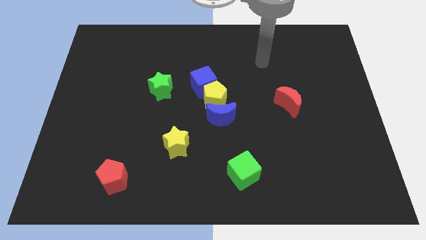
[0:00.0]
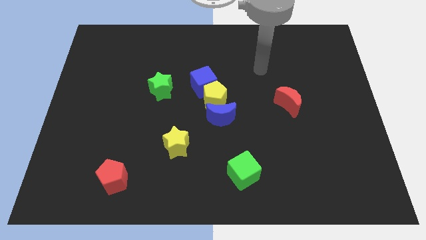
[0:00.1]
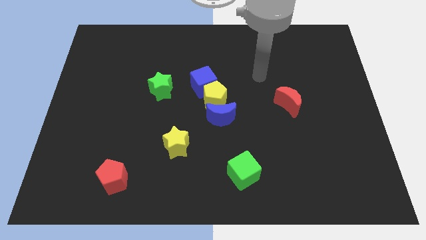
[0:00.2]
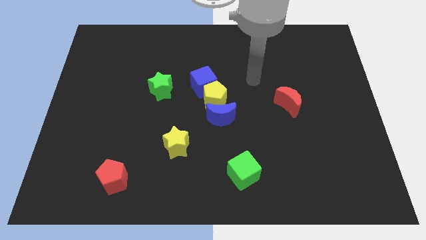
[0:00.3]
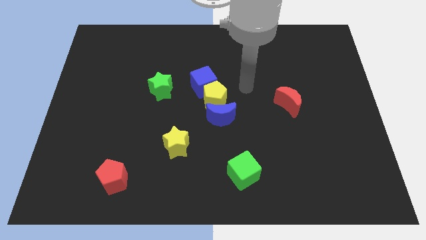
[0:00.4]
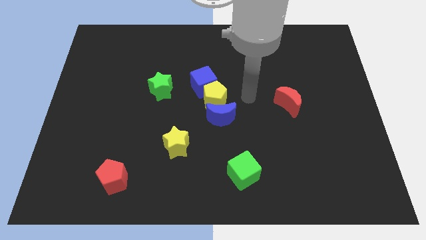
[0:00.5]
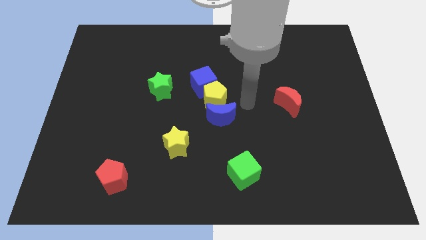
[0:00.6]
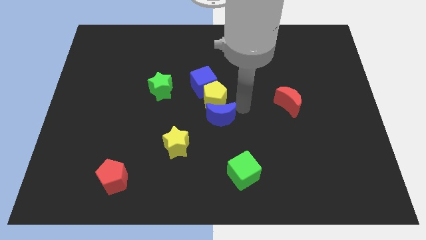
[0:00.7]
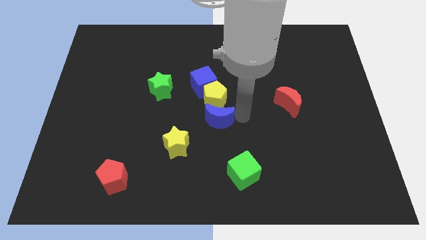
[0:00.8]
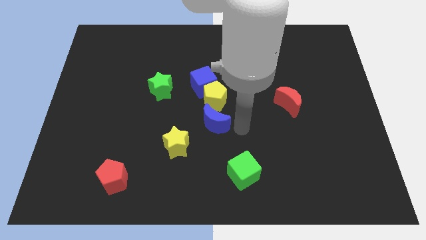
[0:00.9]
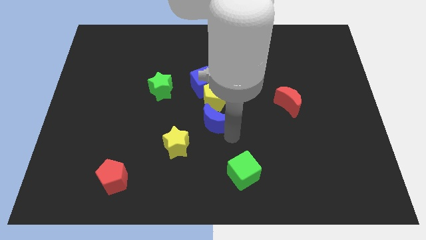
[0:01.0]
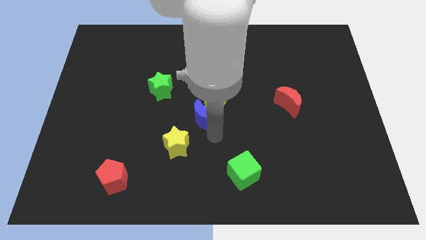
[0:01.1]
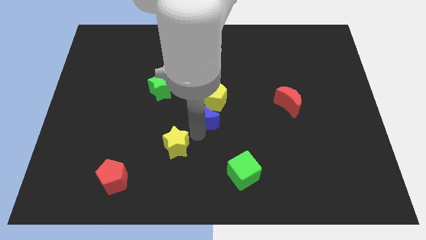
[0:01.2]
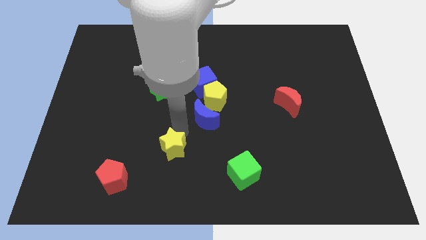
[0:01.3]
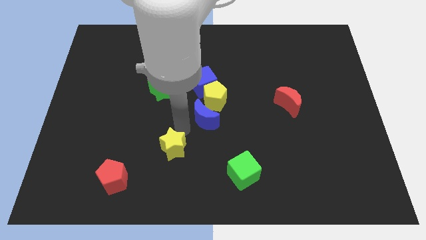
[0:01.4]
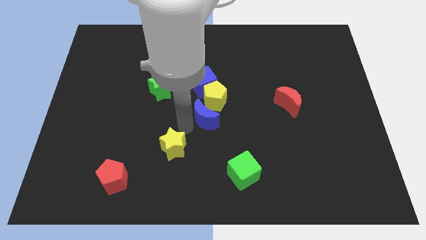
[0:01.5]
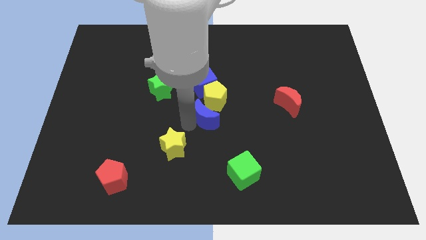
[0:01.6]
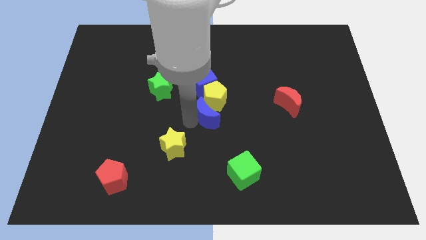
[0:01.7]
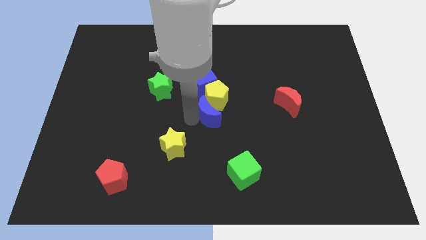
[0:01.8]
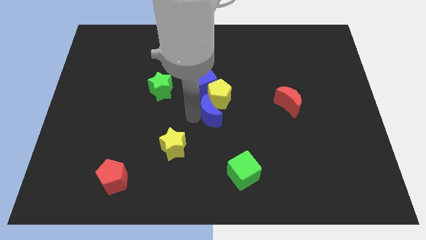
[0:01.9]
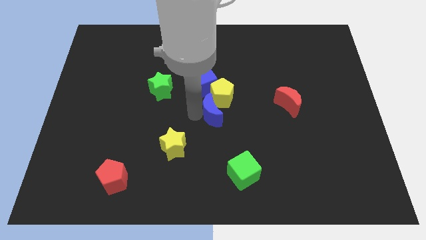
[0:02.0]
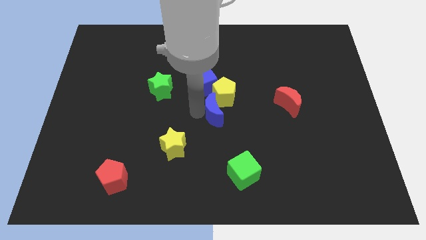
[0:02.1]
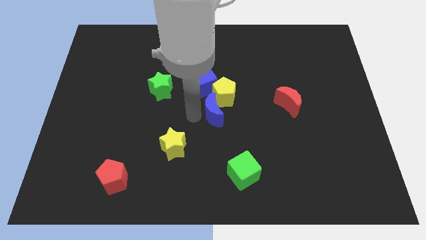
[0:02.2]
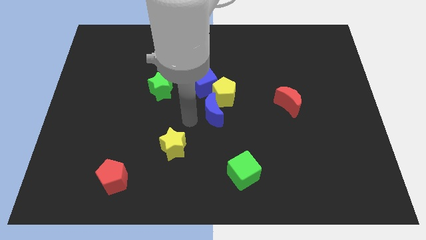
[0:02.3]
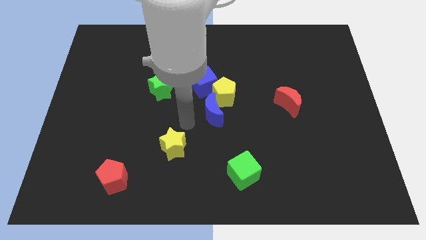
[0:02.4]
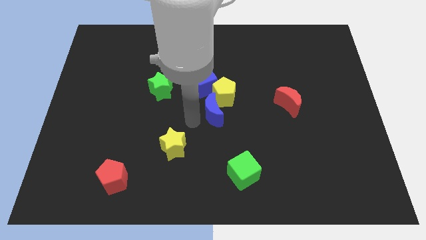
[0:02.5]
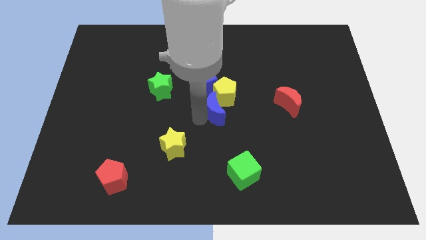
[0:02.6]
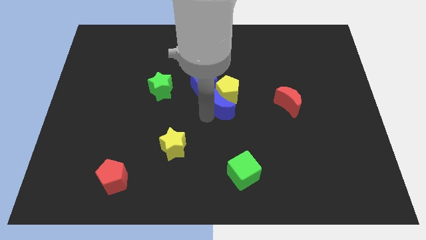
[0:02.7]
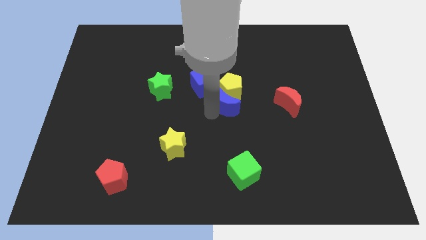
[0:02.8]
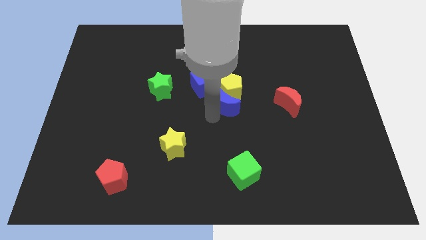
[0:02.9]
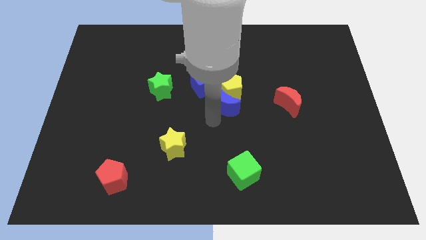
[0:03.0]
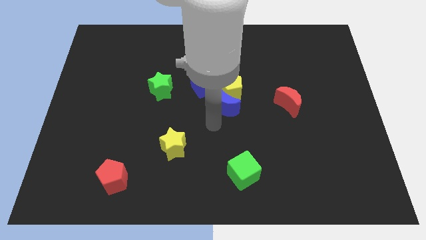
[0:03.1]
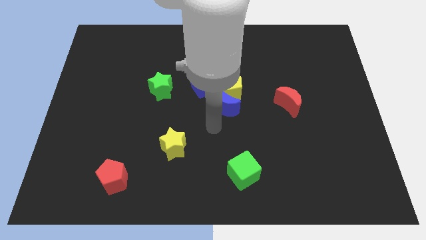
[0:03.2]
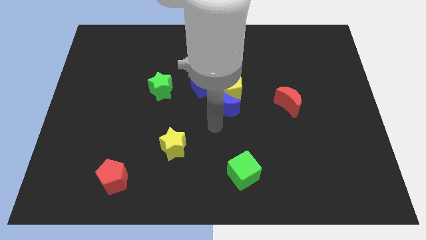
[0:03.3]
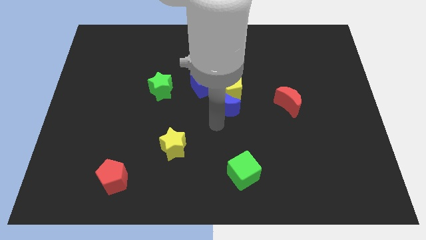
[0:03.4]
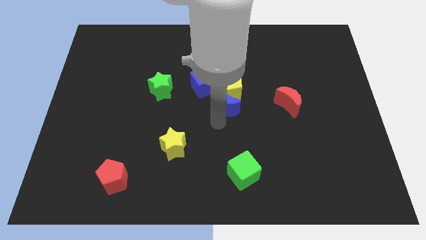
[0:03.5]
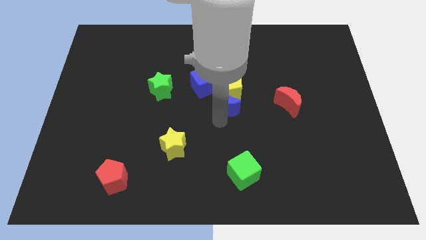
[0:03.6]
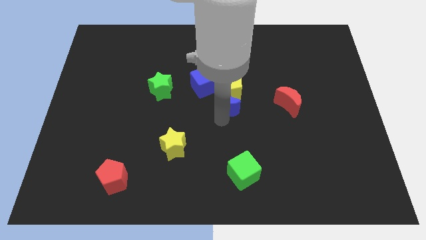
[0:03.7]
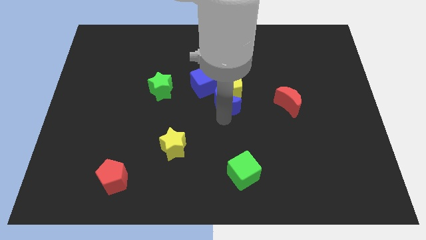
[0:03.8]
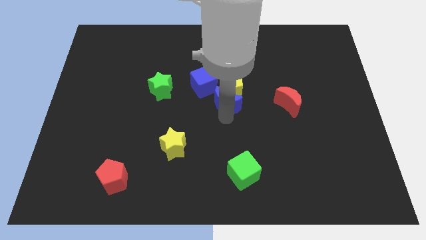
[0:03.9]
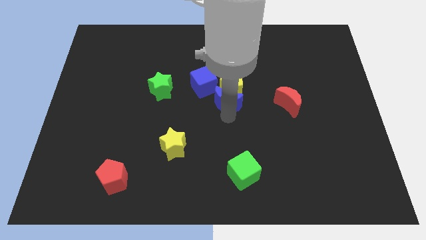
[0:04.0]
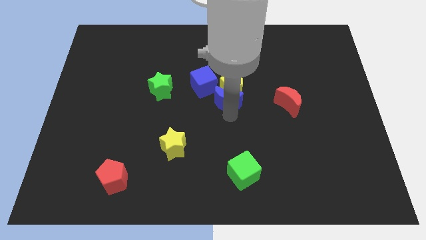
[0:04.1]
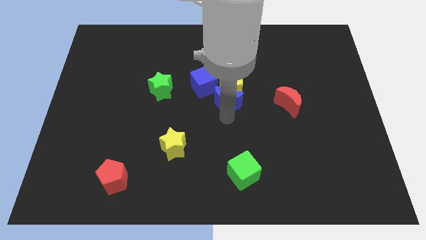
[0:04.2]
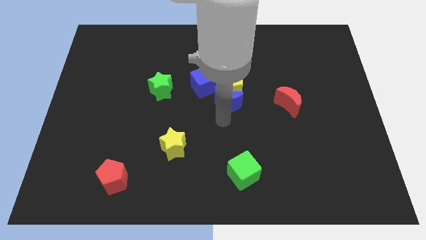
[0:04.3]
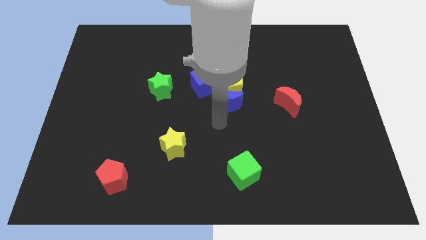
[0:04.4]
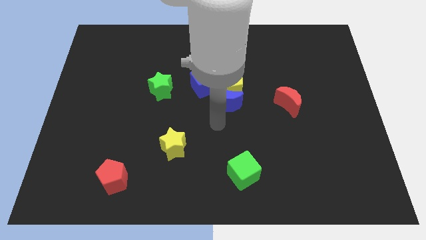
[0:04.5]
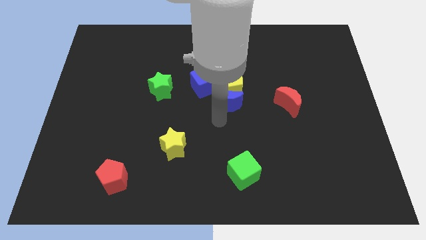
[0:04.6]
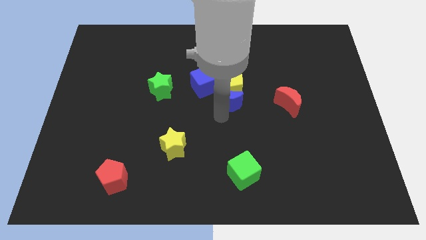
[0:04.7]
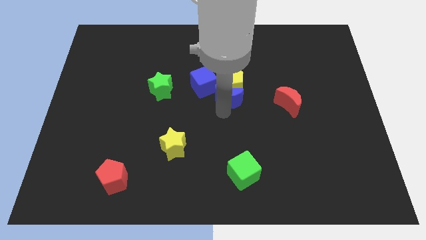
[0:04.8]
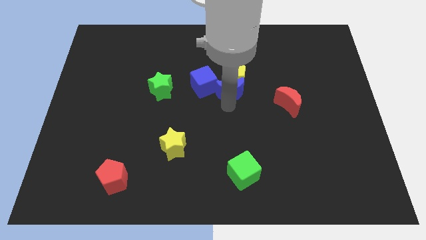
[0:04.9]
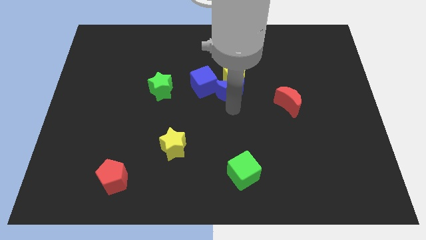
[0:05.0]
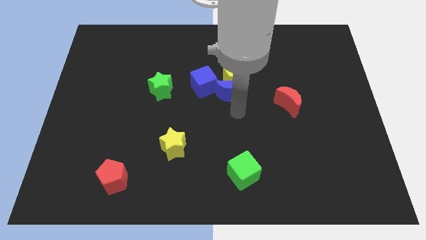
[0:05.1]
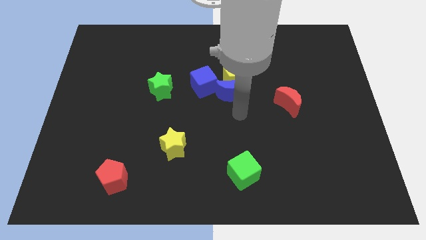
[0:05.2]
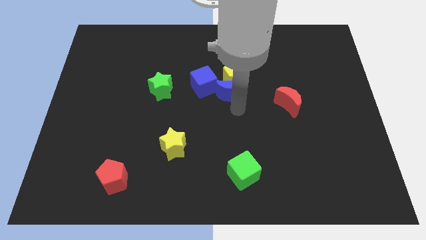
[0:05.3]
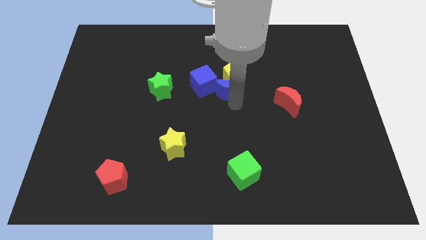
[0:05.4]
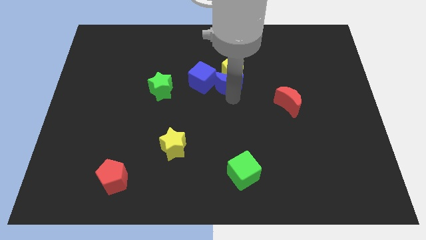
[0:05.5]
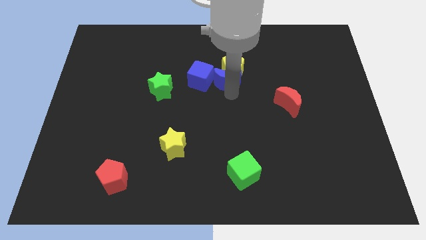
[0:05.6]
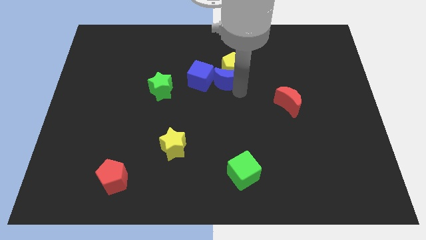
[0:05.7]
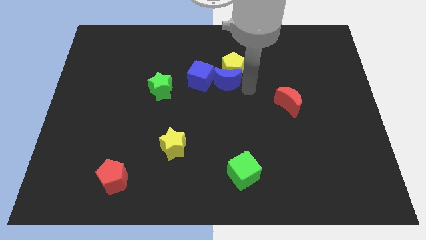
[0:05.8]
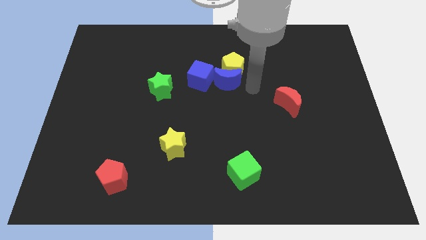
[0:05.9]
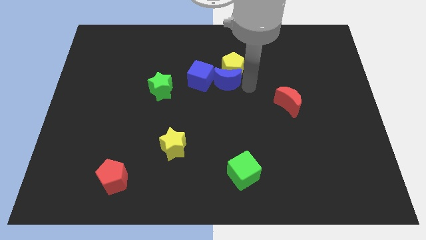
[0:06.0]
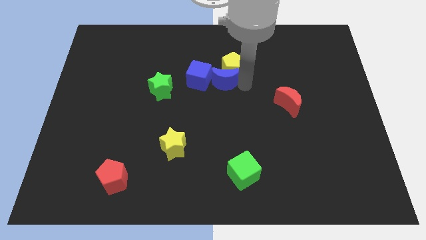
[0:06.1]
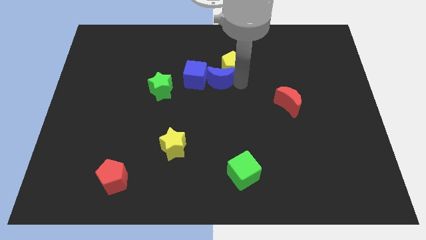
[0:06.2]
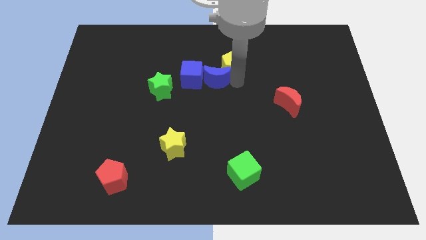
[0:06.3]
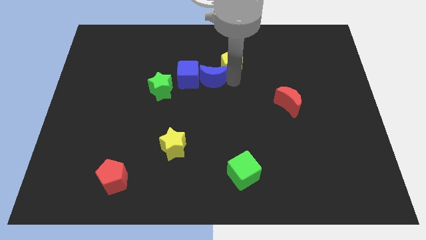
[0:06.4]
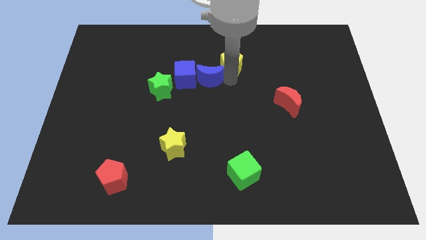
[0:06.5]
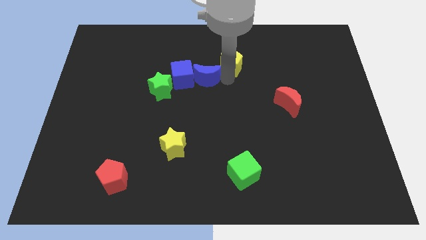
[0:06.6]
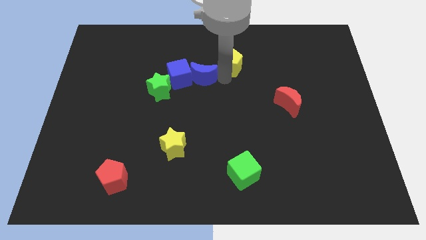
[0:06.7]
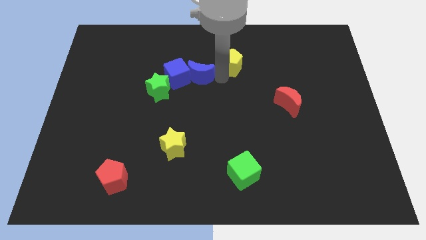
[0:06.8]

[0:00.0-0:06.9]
slide the blue moon diagonally up and to the right of the green star

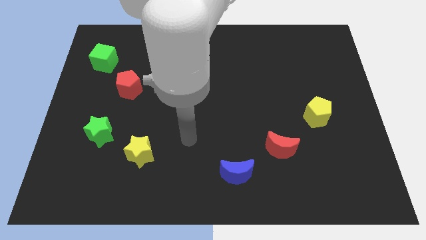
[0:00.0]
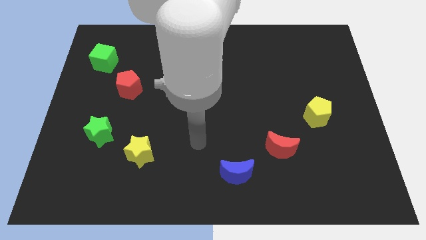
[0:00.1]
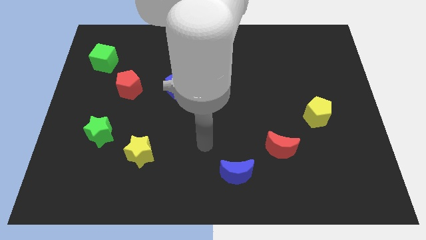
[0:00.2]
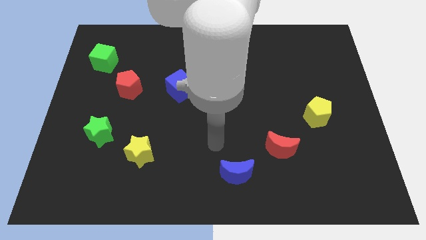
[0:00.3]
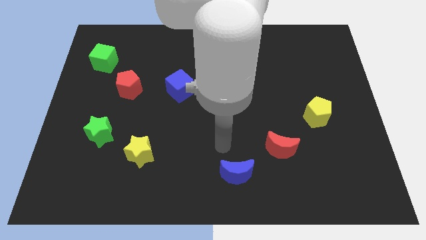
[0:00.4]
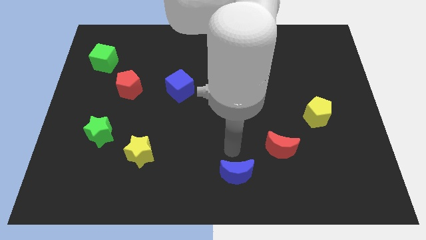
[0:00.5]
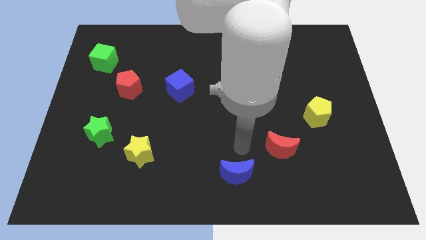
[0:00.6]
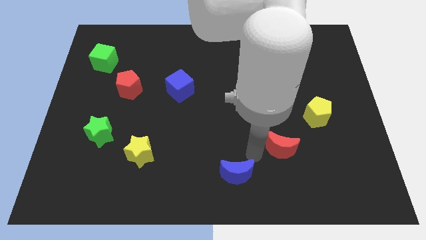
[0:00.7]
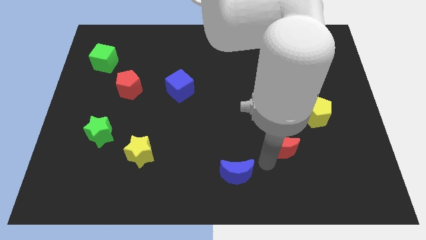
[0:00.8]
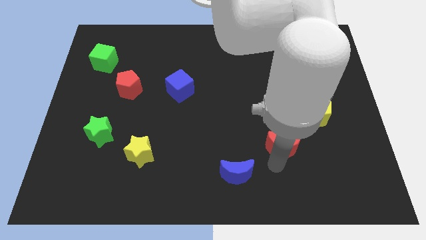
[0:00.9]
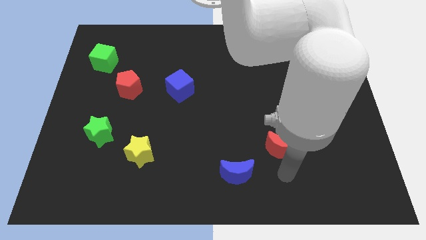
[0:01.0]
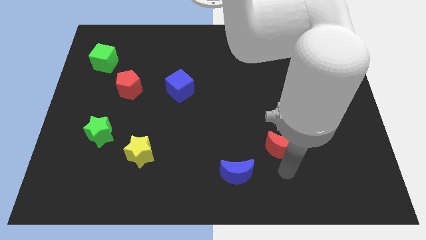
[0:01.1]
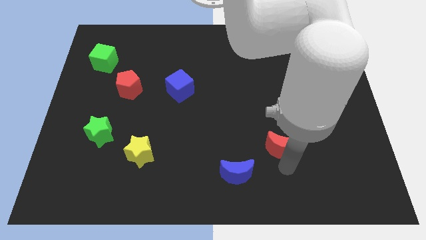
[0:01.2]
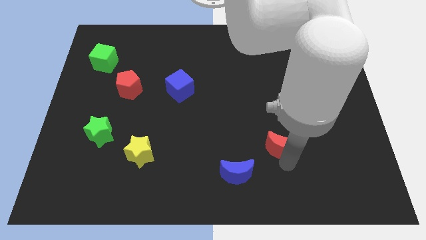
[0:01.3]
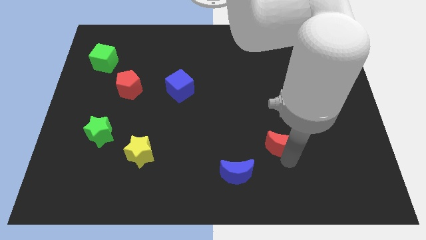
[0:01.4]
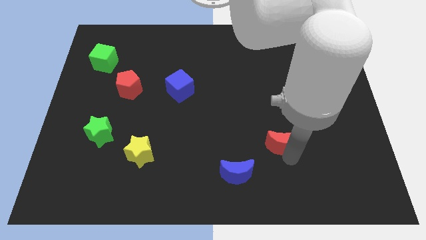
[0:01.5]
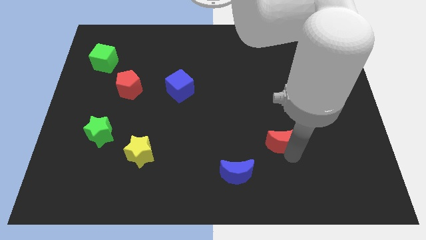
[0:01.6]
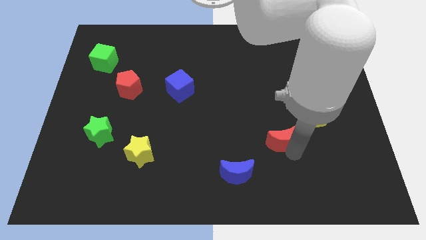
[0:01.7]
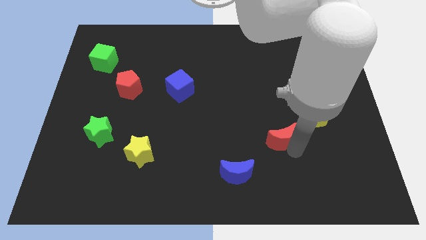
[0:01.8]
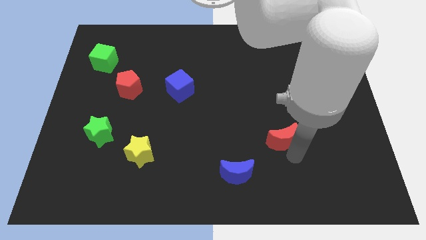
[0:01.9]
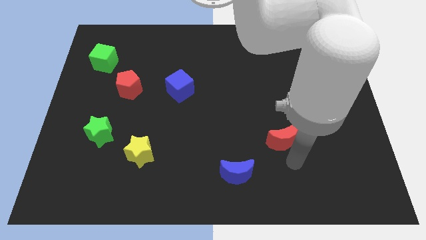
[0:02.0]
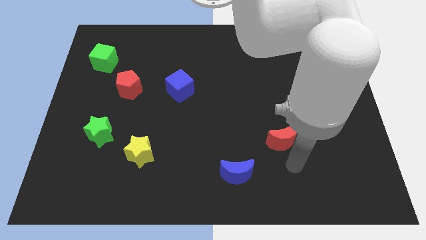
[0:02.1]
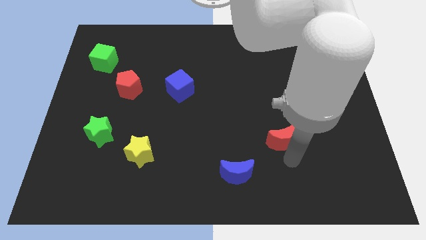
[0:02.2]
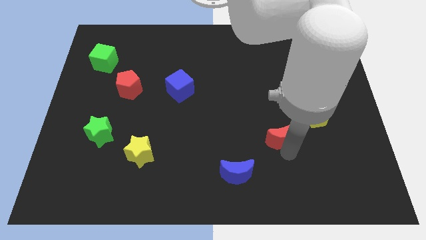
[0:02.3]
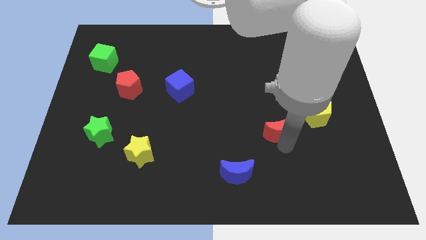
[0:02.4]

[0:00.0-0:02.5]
push the red moon to the left of the yellow pentagon
